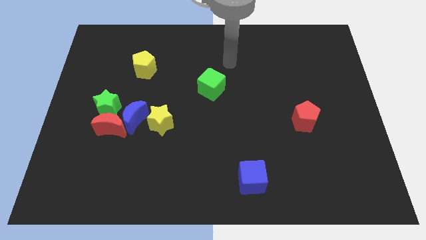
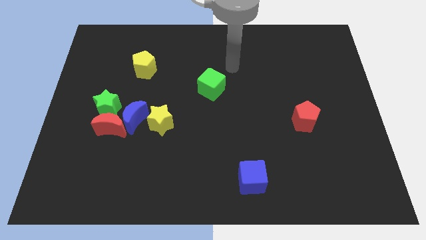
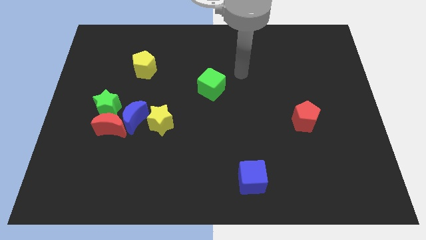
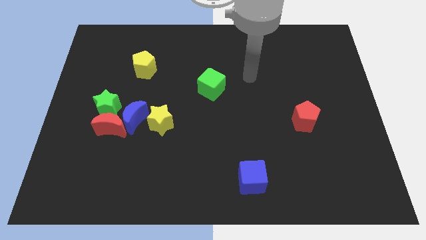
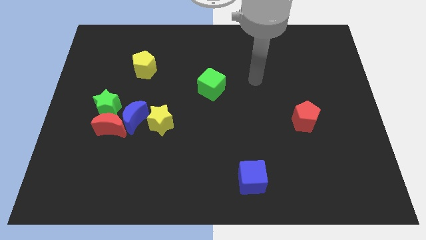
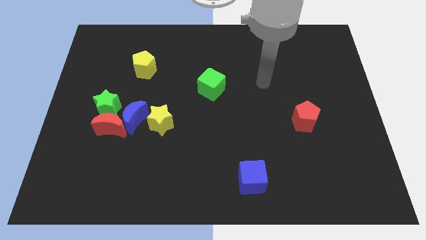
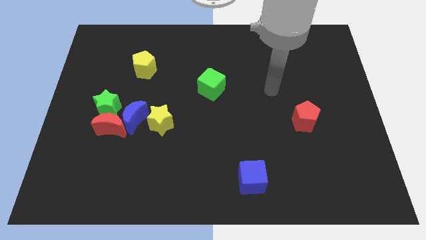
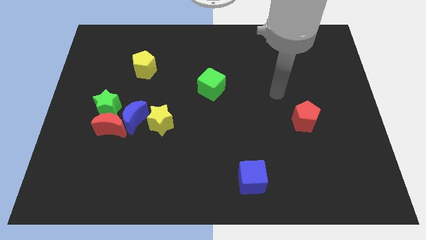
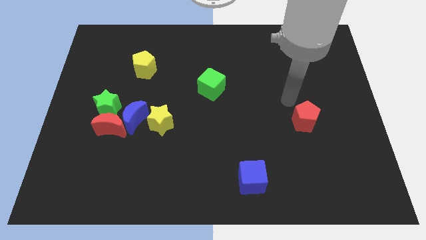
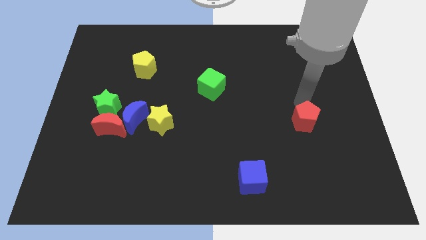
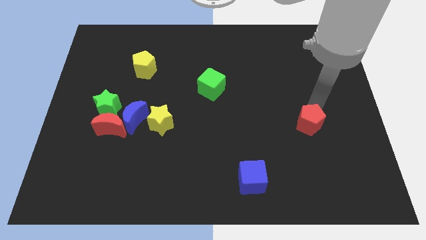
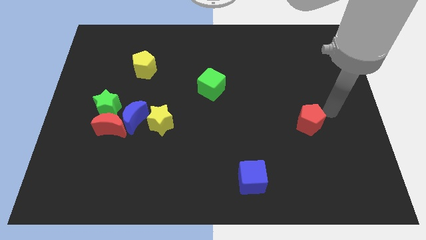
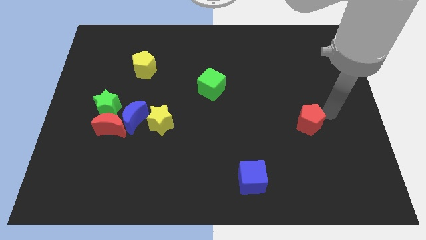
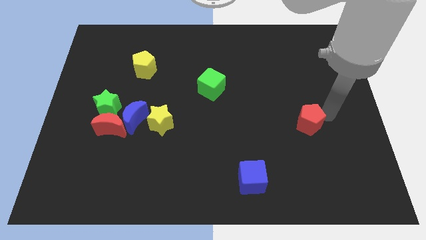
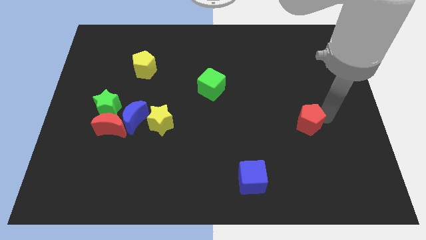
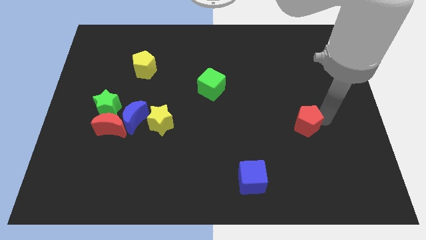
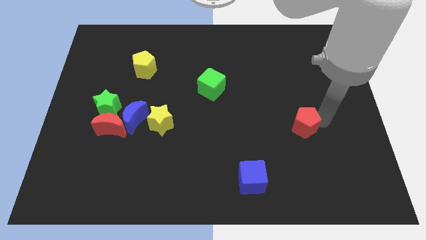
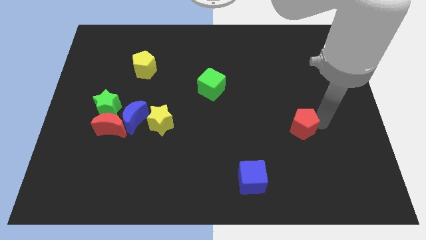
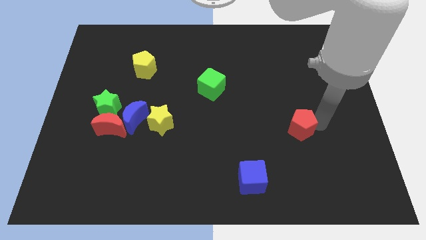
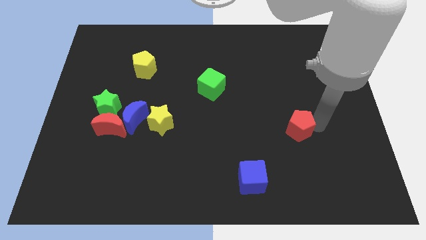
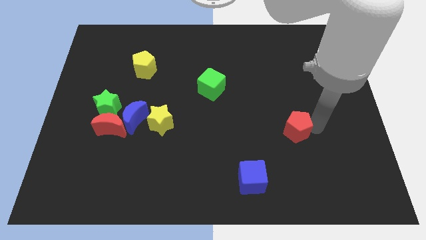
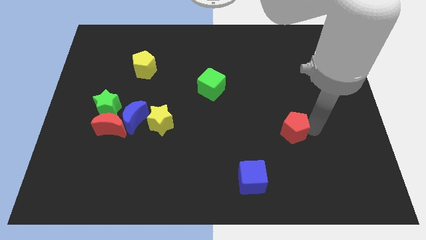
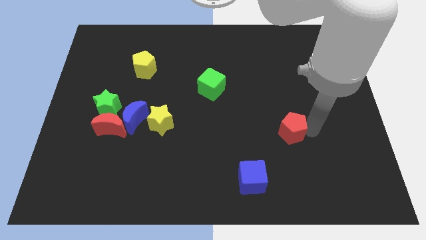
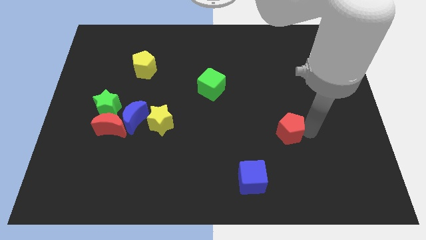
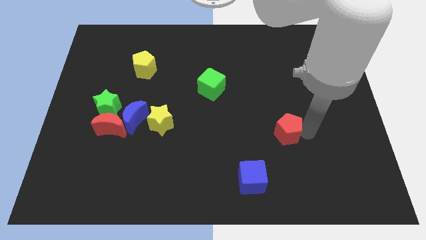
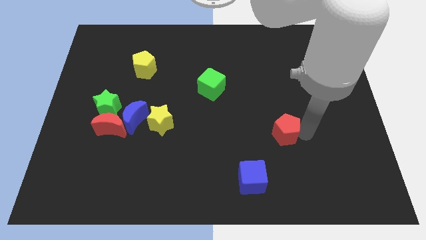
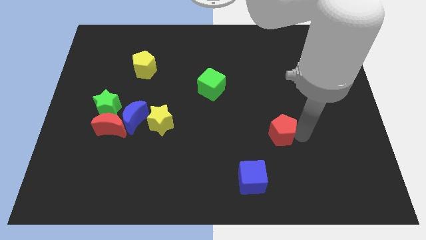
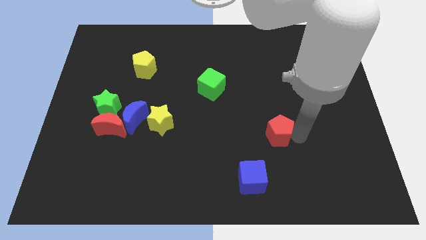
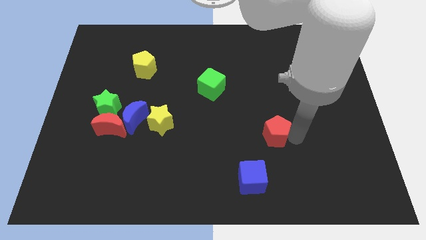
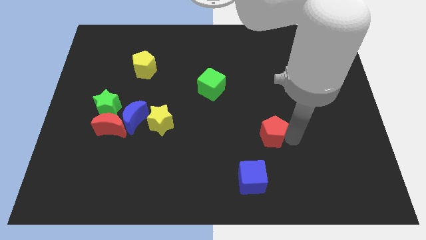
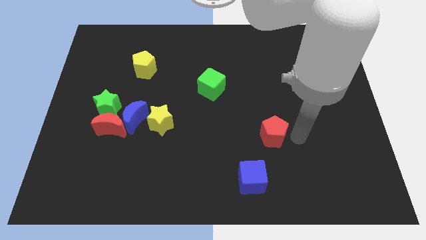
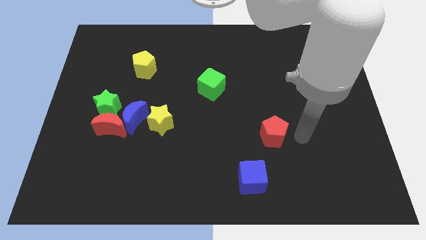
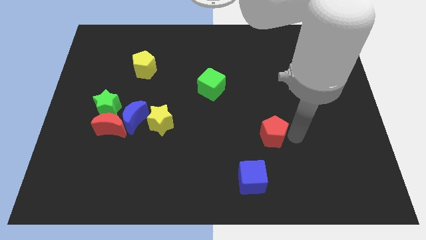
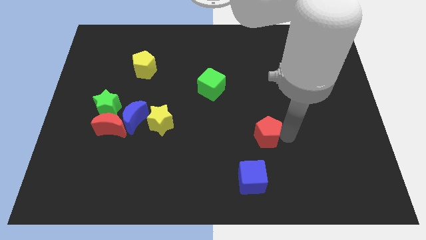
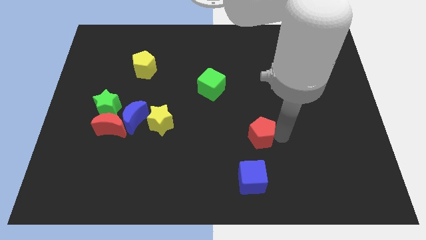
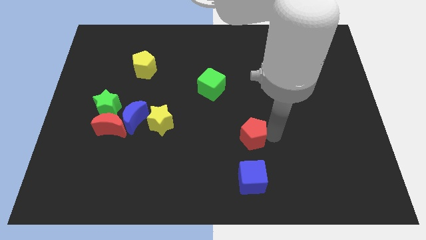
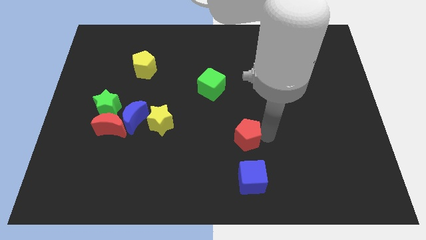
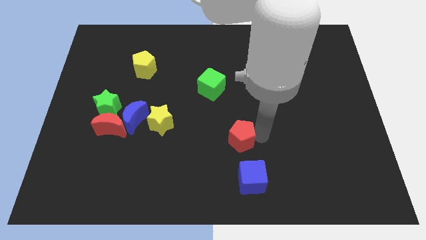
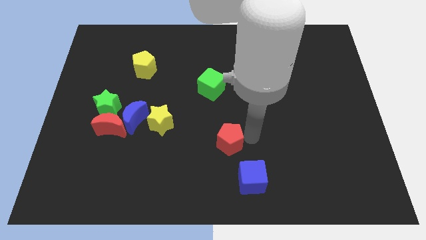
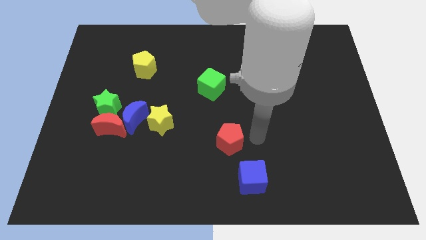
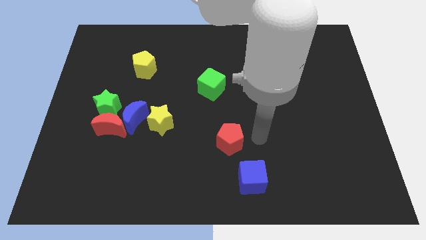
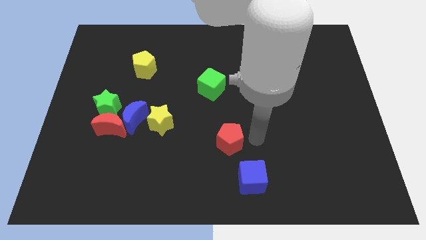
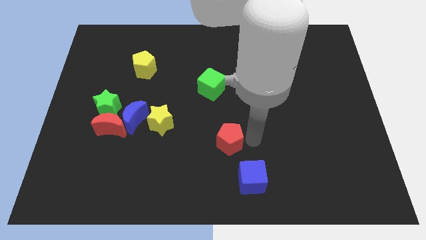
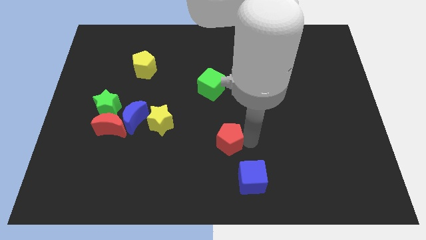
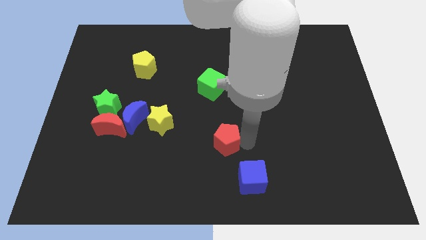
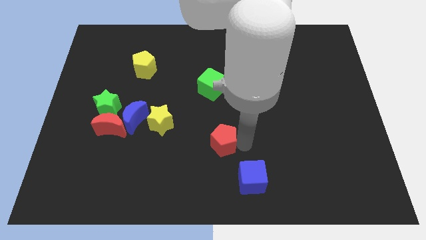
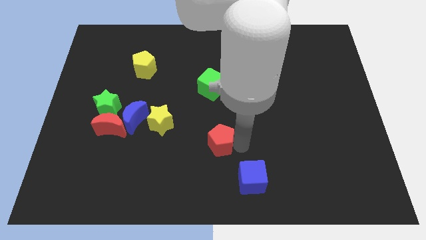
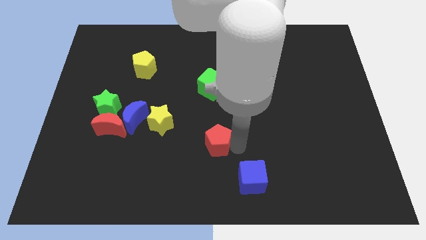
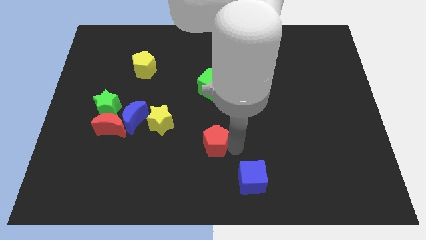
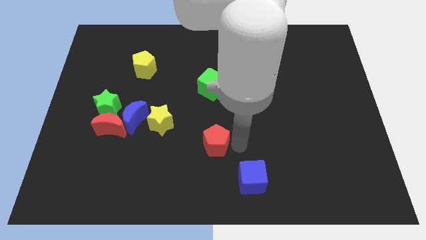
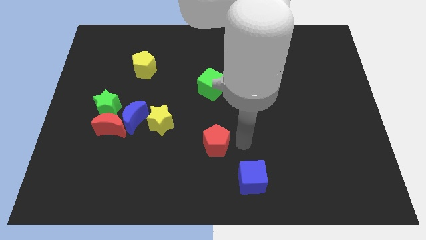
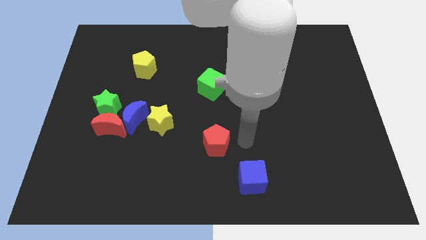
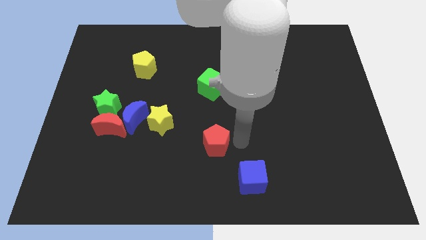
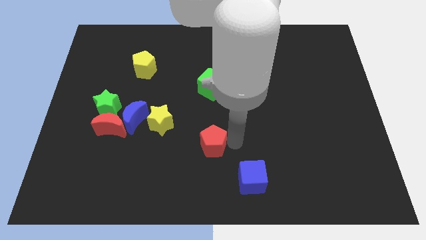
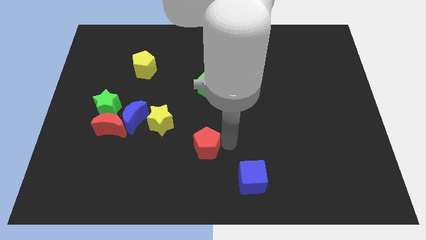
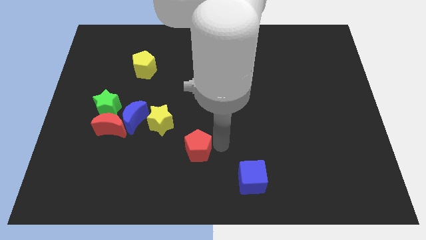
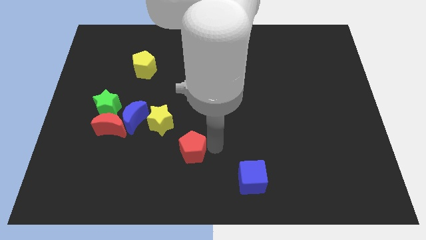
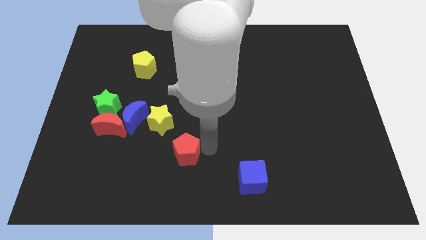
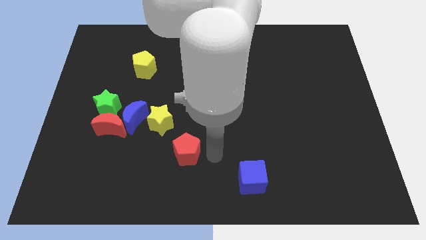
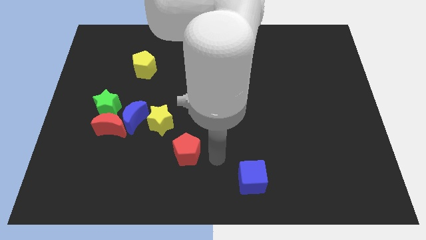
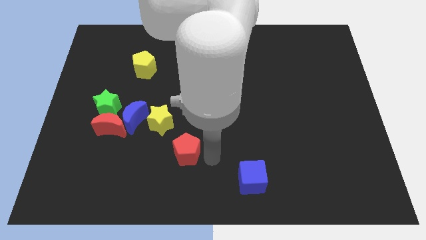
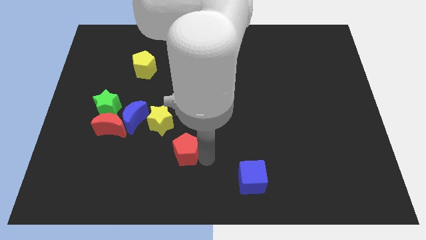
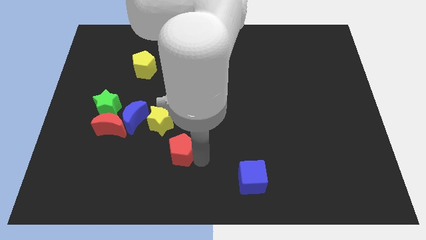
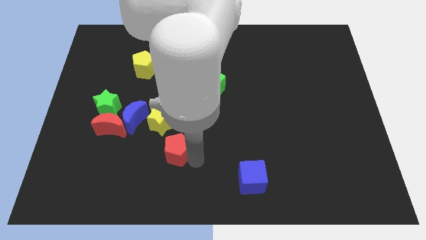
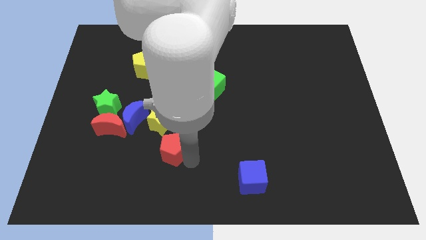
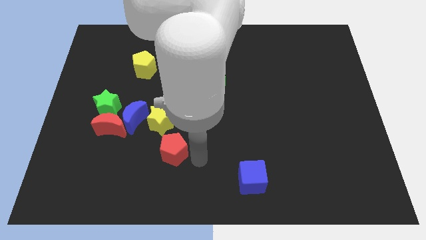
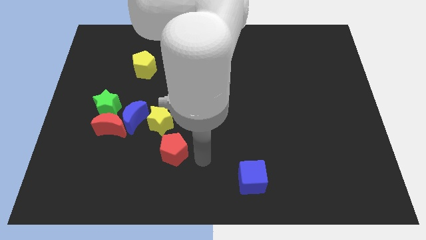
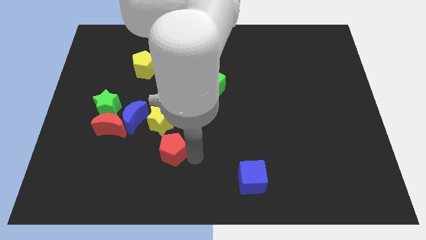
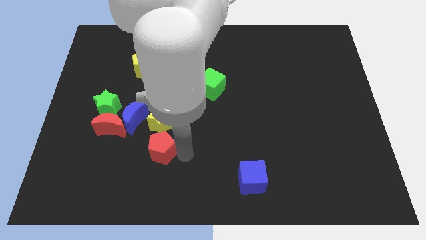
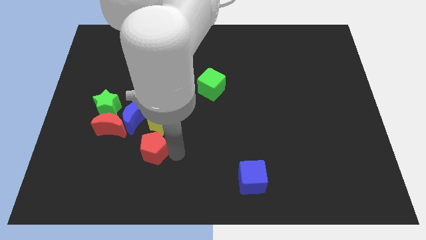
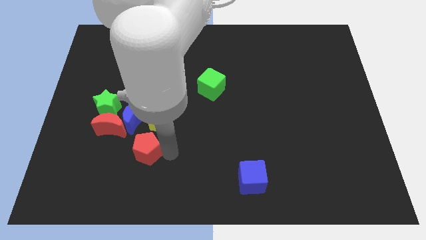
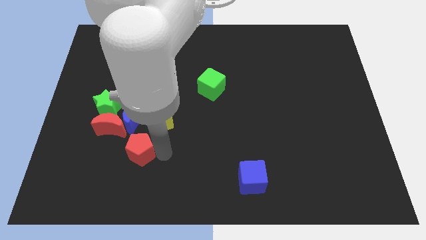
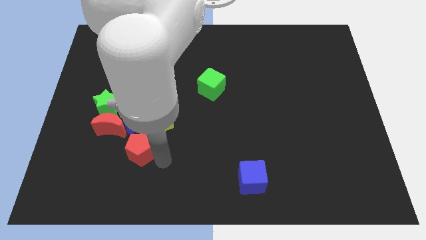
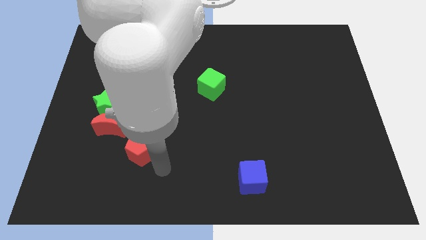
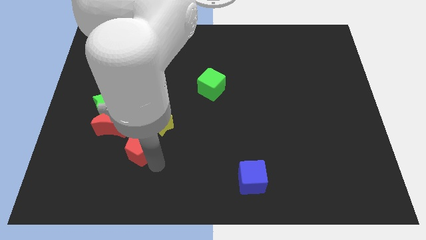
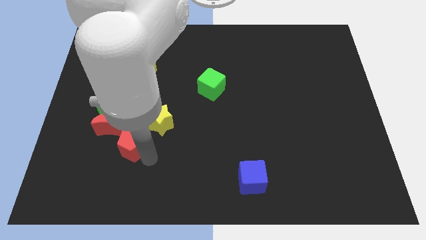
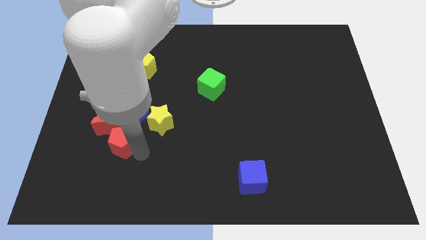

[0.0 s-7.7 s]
put the red pentagon towards the red moon
